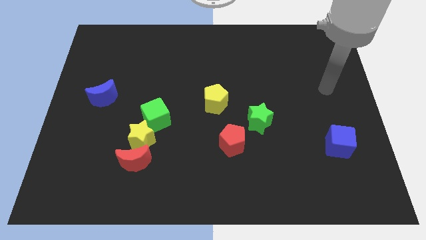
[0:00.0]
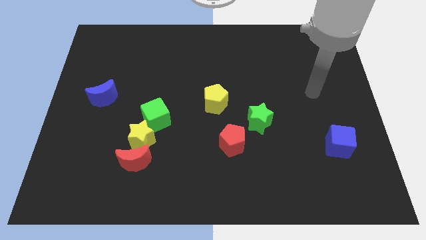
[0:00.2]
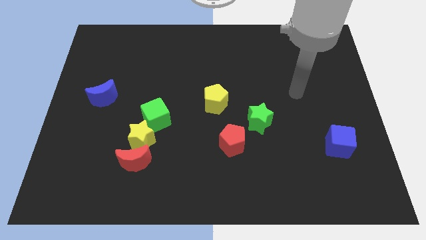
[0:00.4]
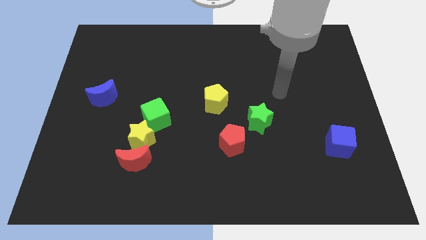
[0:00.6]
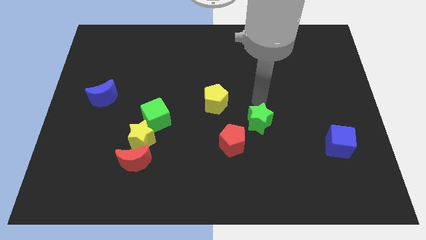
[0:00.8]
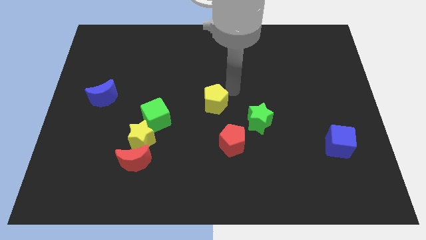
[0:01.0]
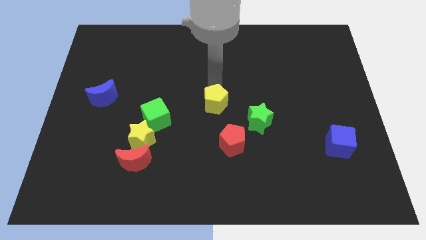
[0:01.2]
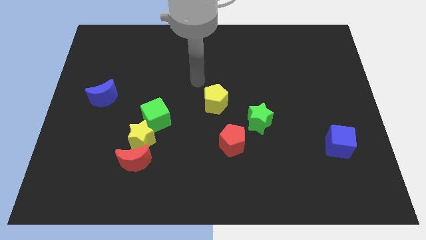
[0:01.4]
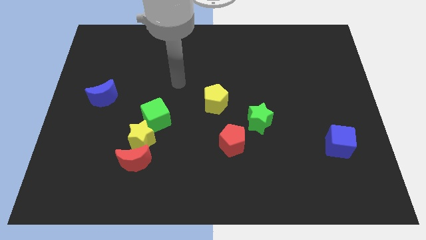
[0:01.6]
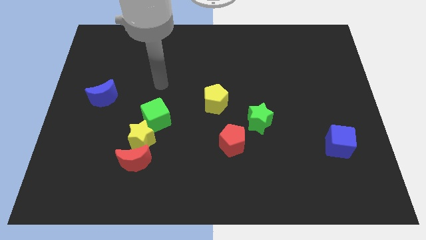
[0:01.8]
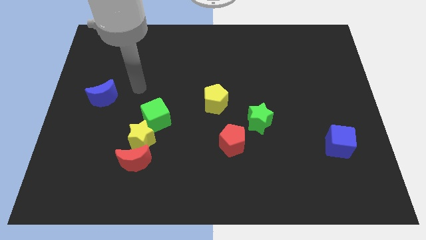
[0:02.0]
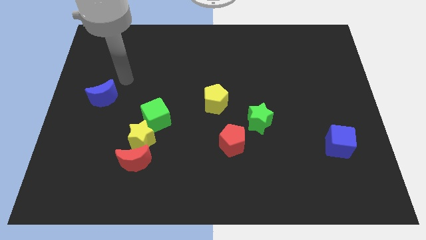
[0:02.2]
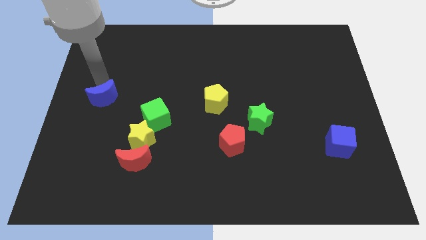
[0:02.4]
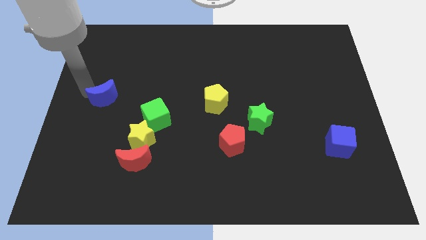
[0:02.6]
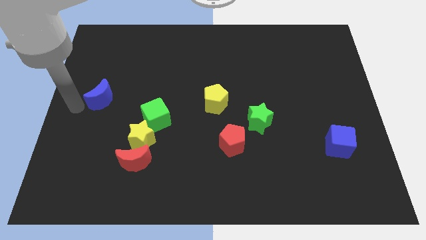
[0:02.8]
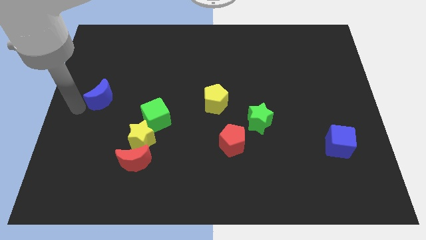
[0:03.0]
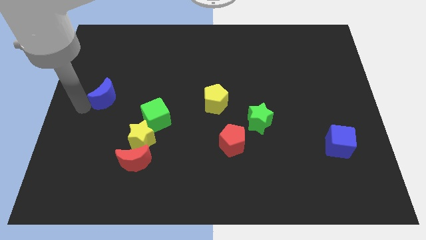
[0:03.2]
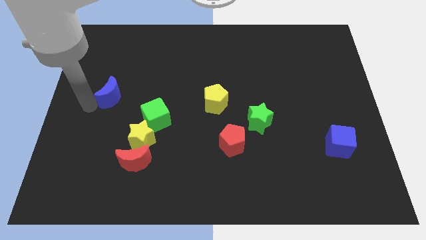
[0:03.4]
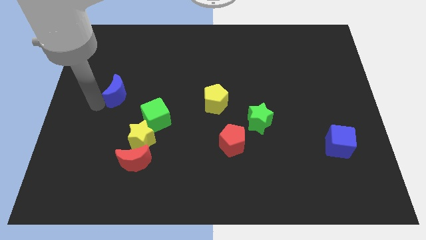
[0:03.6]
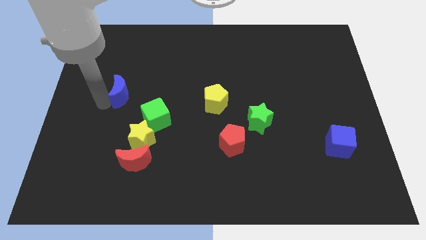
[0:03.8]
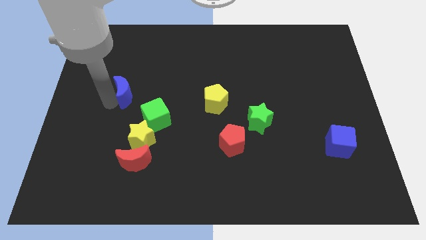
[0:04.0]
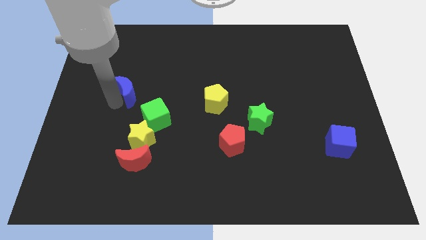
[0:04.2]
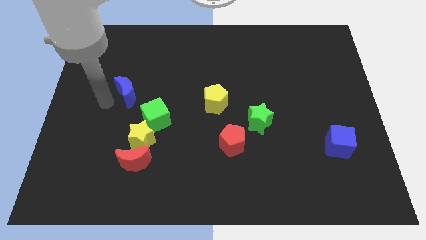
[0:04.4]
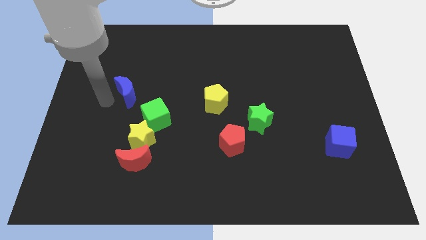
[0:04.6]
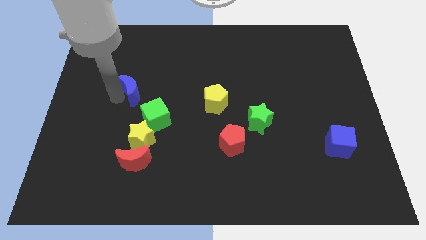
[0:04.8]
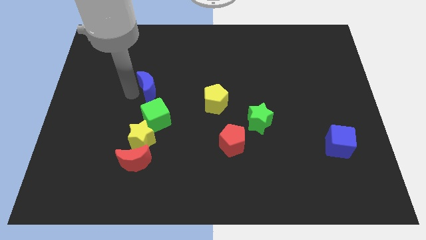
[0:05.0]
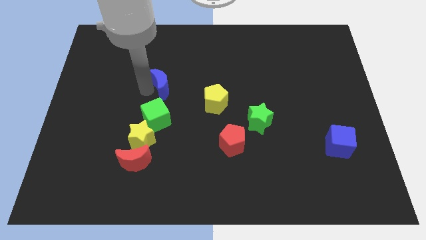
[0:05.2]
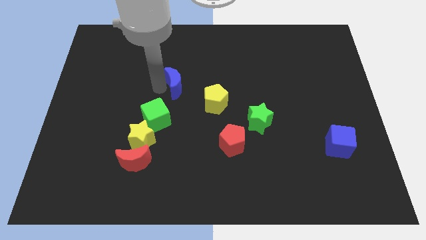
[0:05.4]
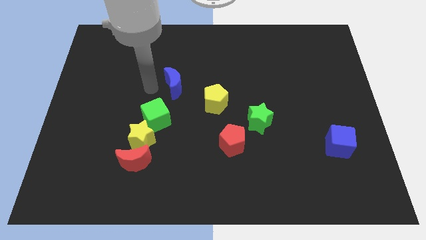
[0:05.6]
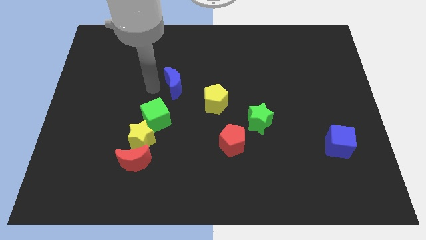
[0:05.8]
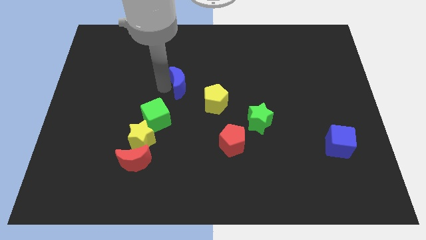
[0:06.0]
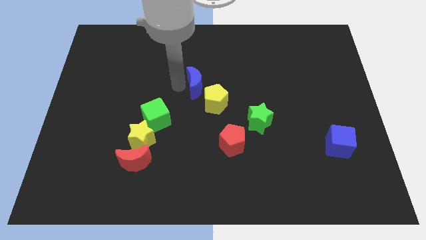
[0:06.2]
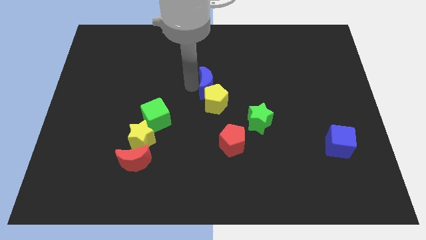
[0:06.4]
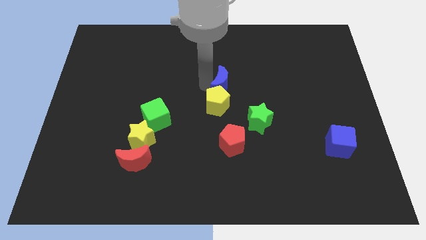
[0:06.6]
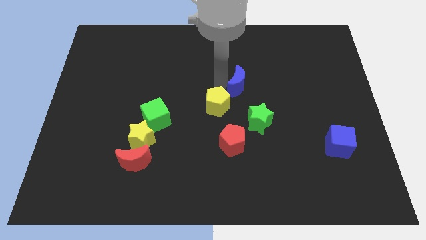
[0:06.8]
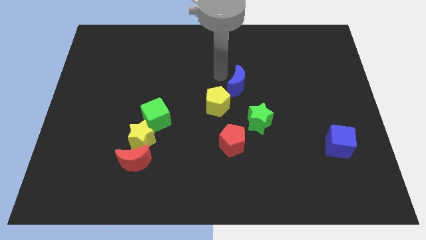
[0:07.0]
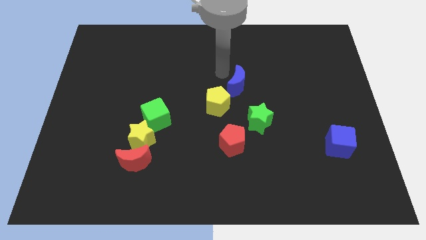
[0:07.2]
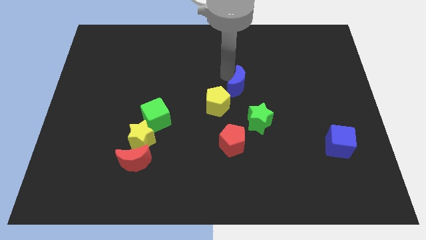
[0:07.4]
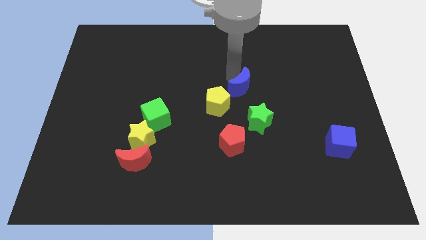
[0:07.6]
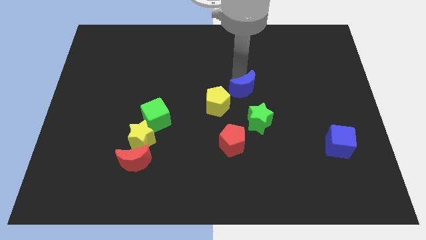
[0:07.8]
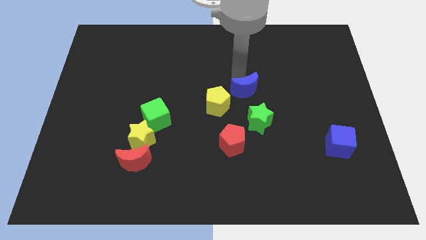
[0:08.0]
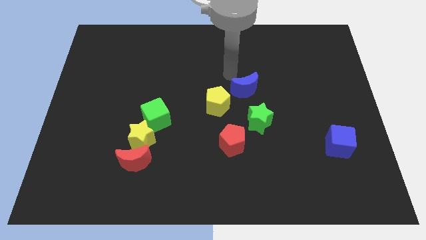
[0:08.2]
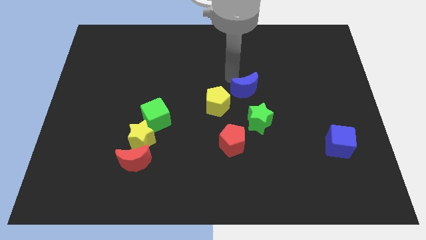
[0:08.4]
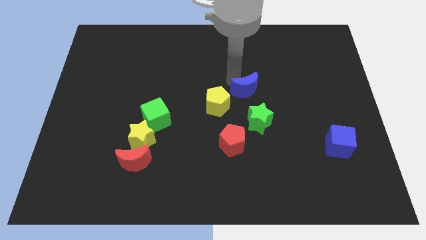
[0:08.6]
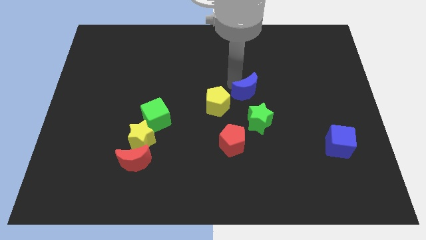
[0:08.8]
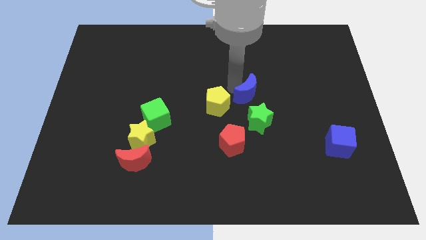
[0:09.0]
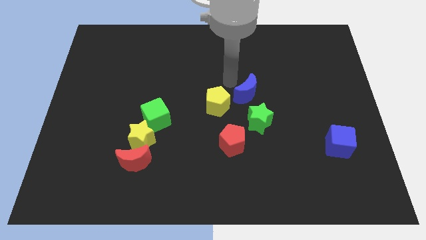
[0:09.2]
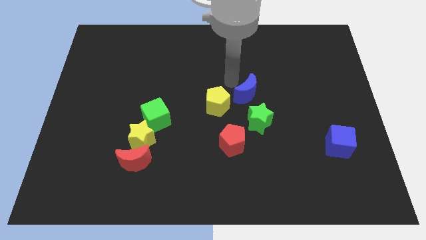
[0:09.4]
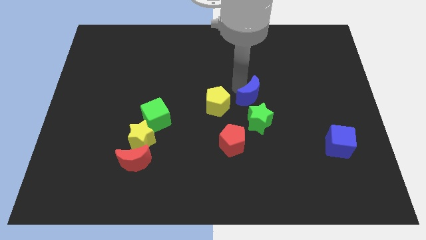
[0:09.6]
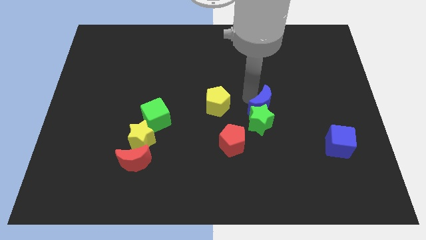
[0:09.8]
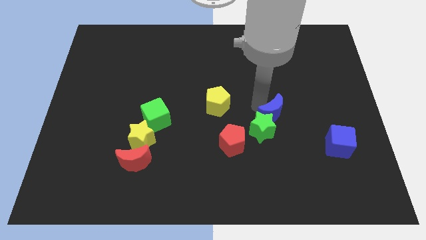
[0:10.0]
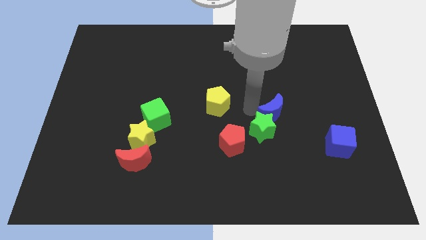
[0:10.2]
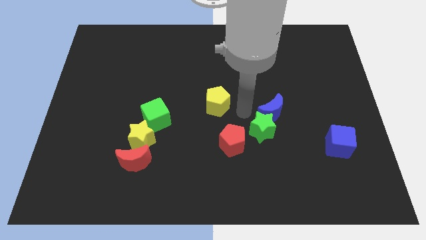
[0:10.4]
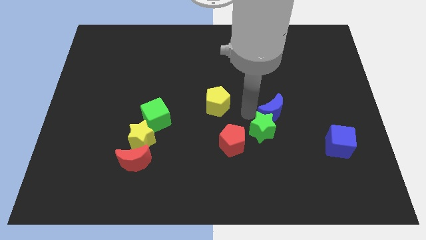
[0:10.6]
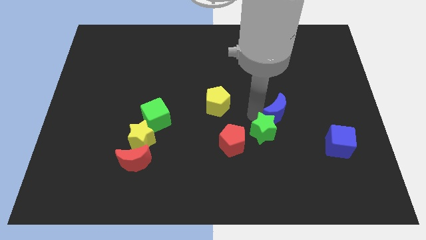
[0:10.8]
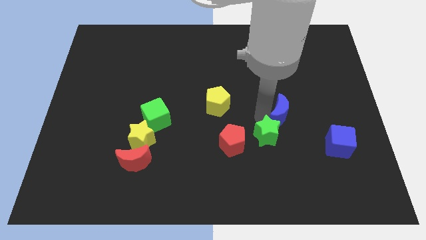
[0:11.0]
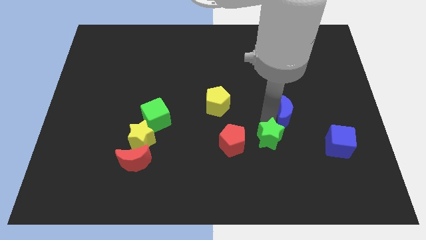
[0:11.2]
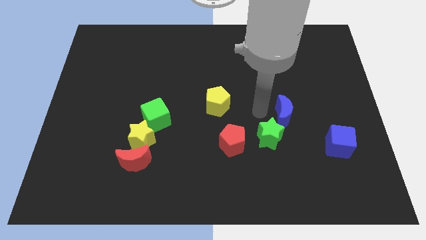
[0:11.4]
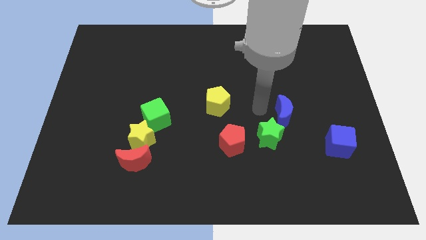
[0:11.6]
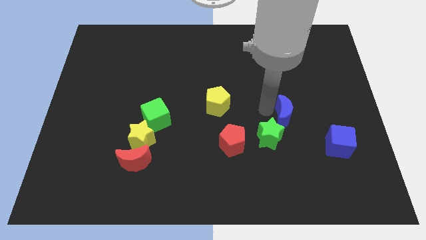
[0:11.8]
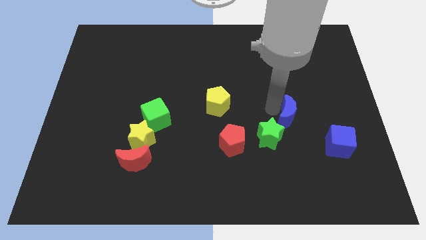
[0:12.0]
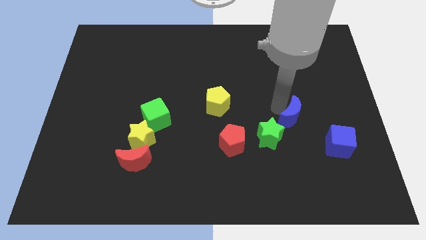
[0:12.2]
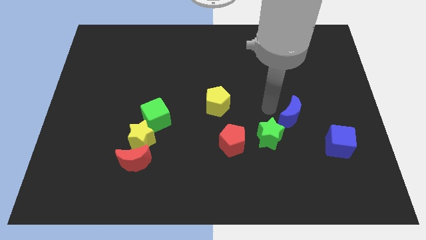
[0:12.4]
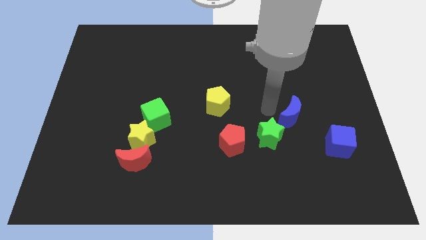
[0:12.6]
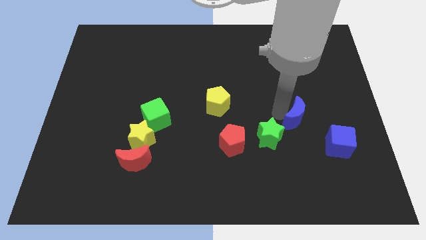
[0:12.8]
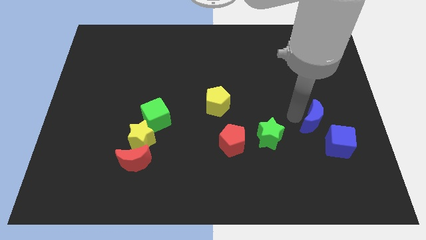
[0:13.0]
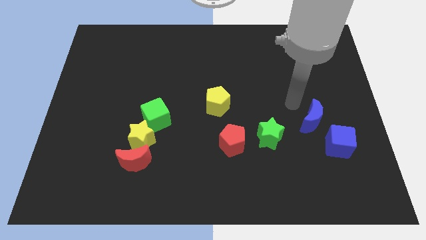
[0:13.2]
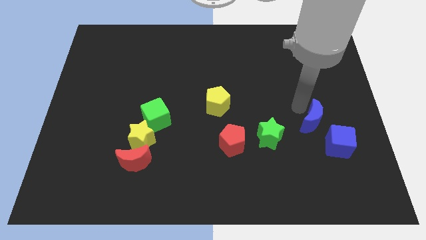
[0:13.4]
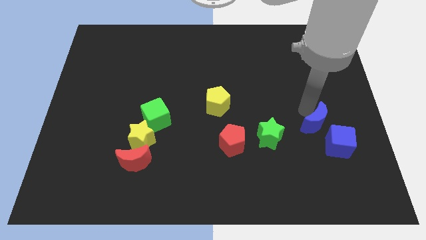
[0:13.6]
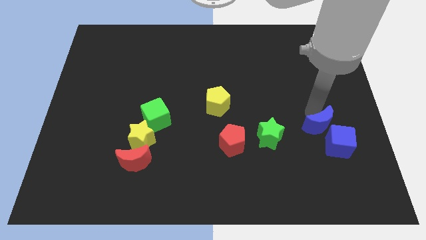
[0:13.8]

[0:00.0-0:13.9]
slide the blue moon close to the blue cube

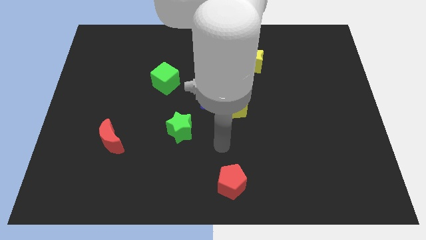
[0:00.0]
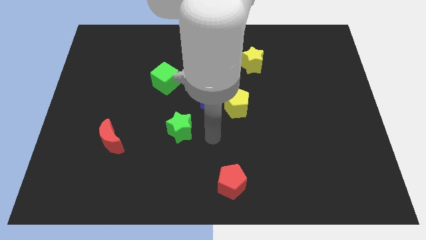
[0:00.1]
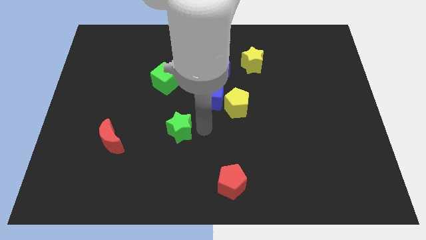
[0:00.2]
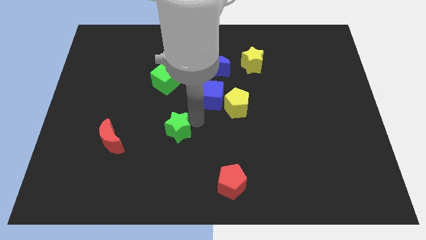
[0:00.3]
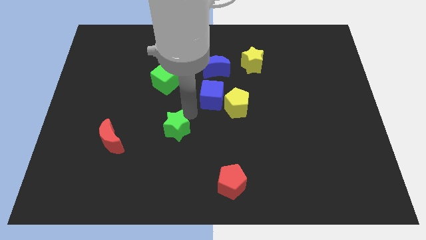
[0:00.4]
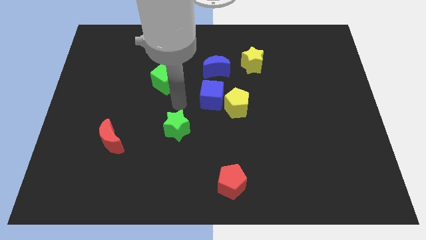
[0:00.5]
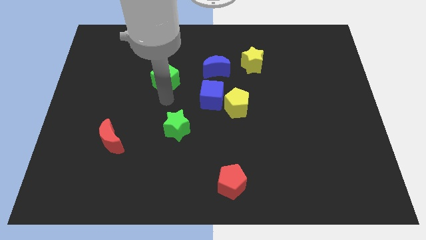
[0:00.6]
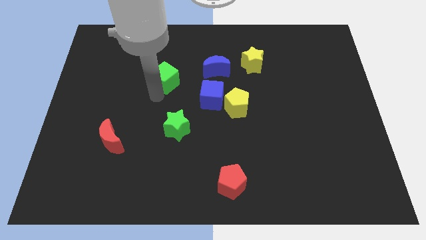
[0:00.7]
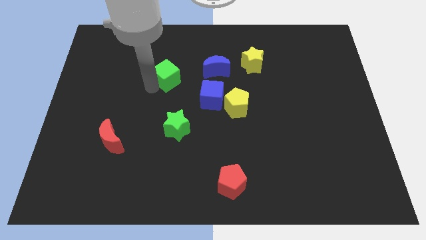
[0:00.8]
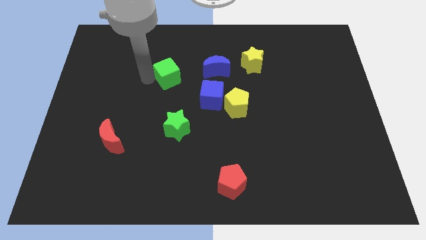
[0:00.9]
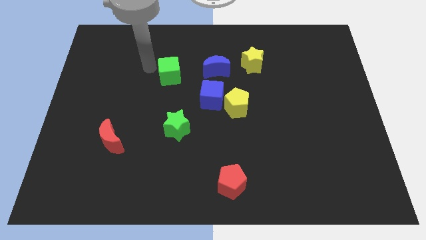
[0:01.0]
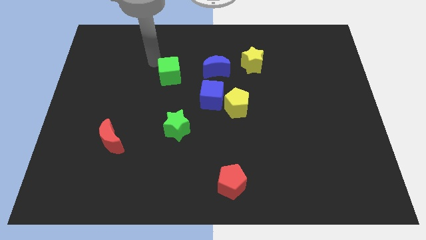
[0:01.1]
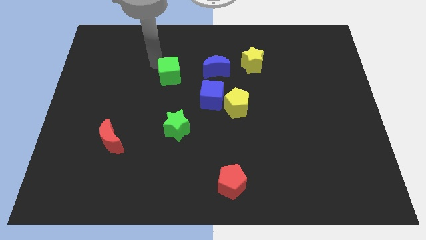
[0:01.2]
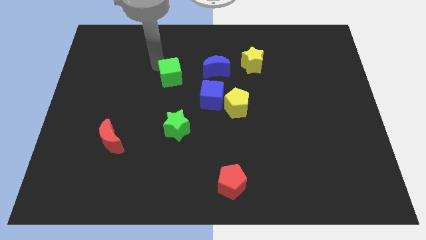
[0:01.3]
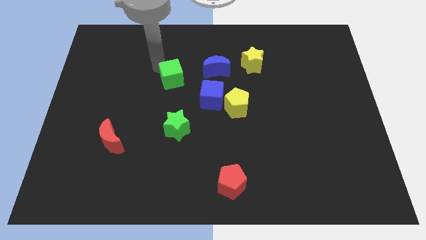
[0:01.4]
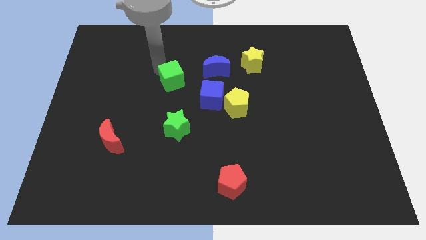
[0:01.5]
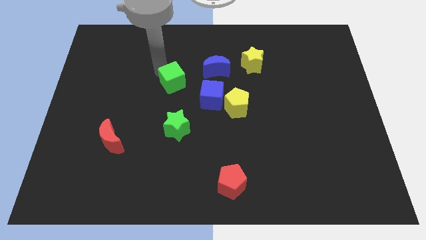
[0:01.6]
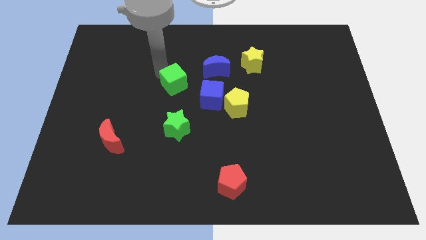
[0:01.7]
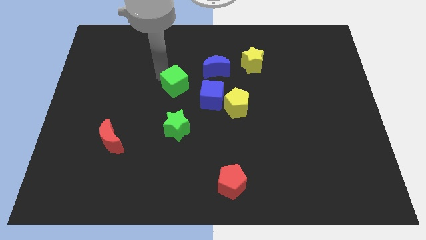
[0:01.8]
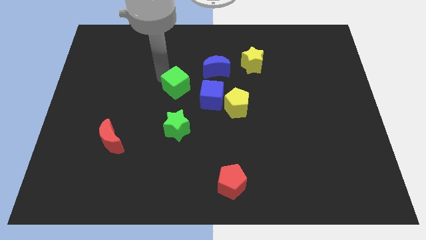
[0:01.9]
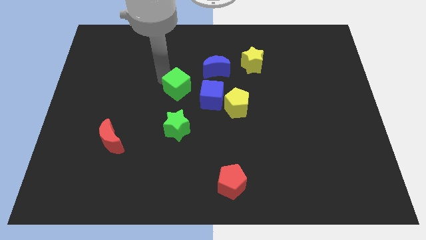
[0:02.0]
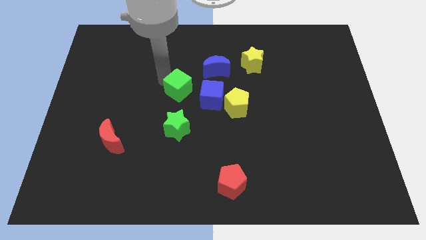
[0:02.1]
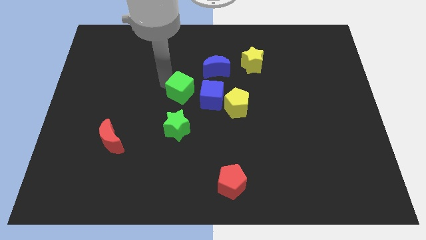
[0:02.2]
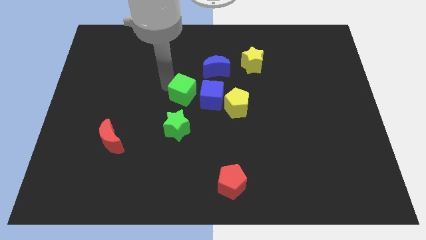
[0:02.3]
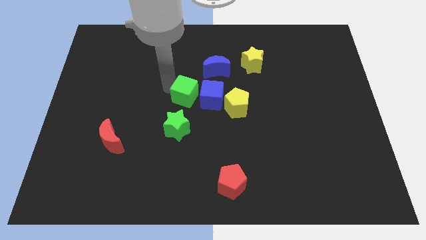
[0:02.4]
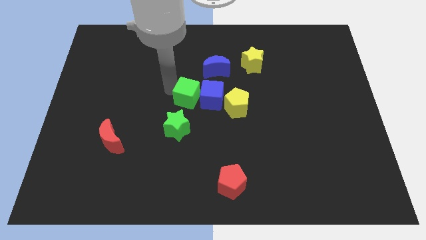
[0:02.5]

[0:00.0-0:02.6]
slide the green cube close to the blue cube
